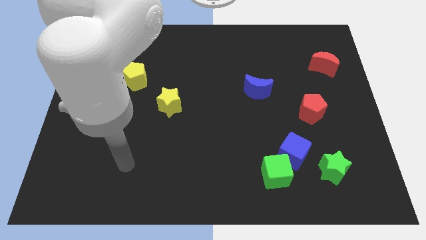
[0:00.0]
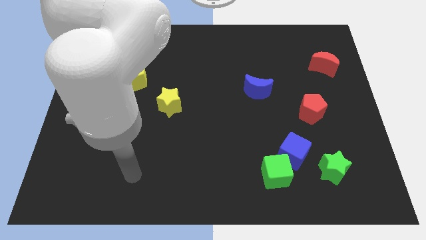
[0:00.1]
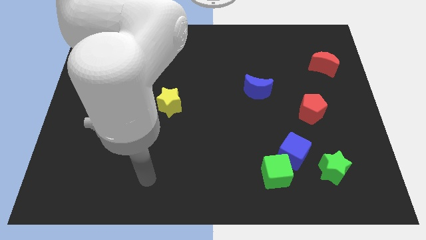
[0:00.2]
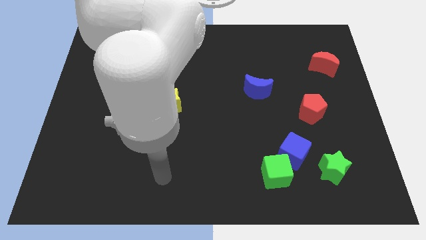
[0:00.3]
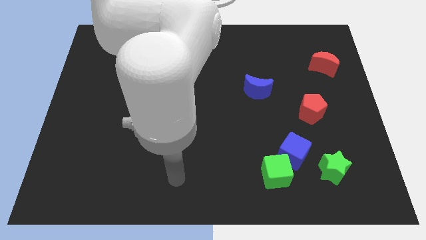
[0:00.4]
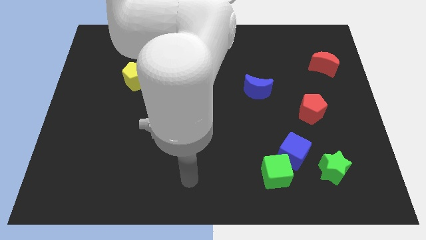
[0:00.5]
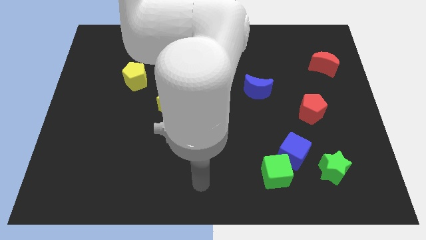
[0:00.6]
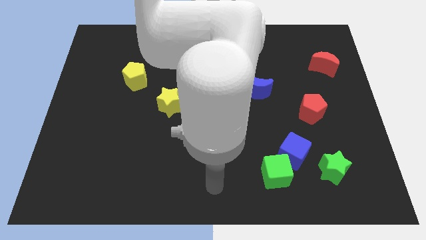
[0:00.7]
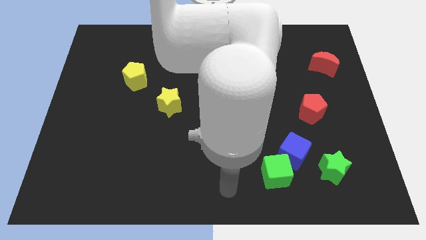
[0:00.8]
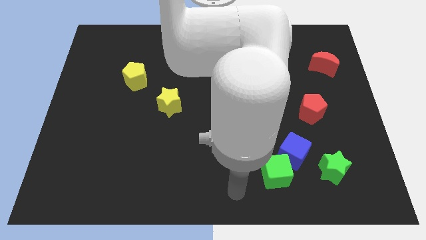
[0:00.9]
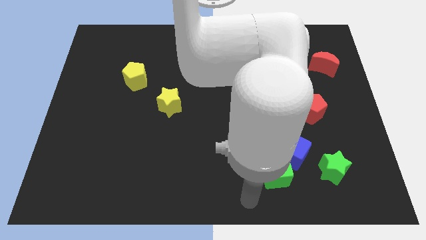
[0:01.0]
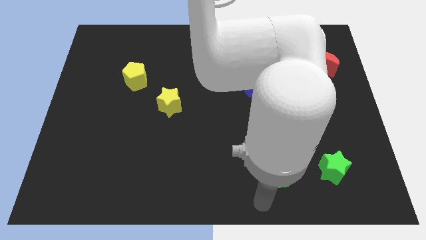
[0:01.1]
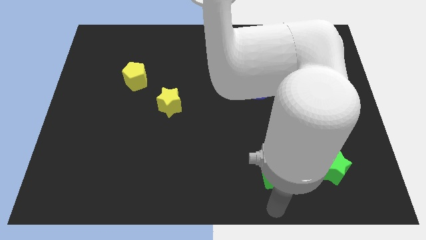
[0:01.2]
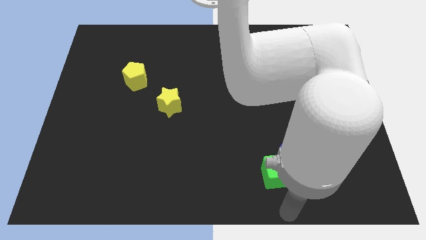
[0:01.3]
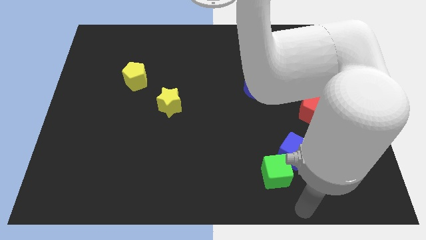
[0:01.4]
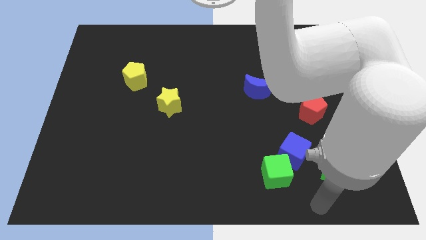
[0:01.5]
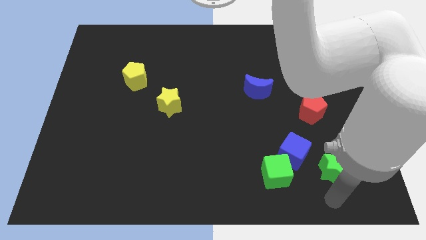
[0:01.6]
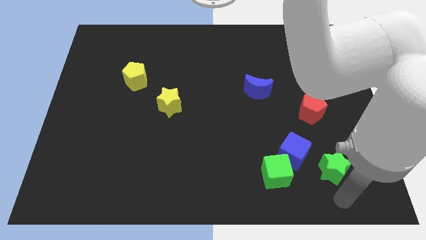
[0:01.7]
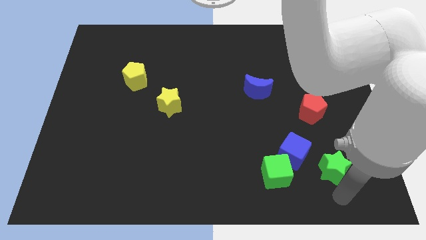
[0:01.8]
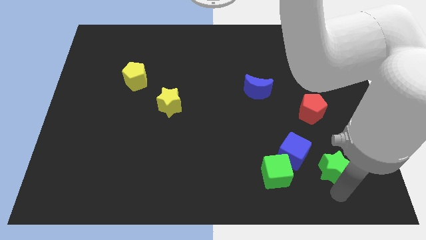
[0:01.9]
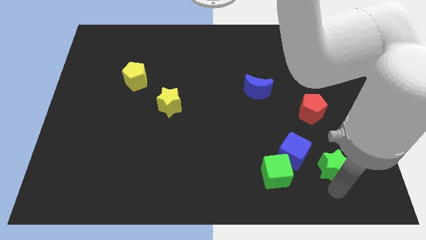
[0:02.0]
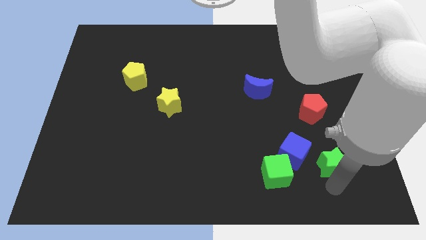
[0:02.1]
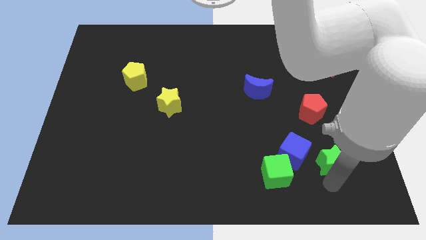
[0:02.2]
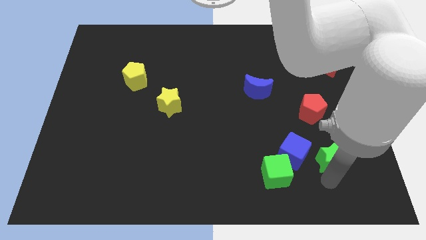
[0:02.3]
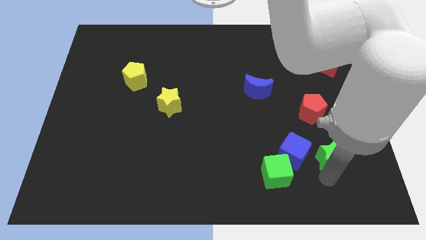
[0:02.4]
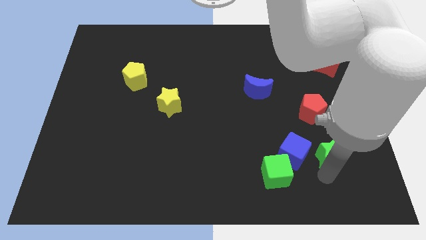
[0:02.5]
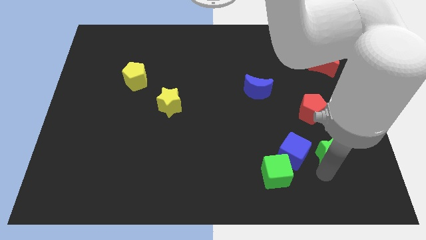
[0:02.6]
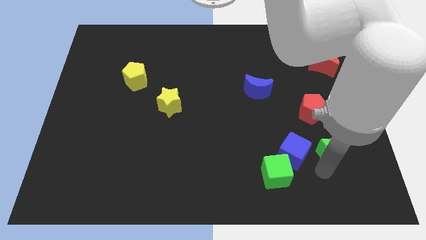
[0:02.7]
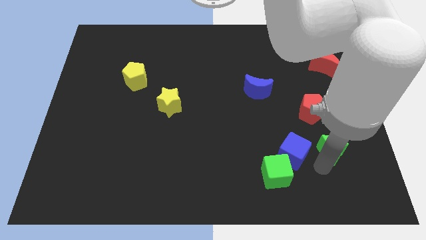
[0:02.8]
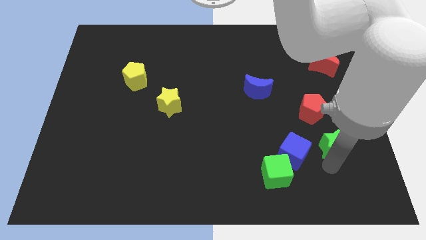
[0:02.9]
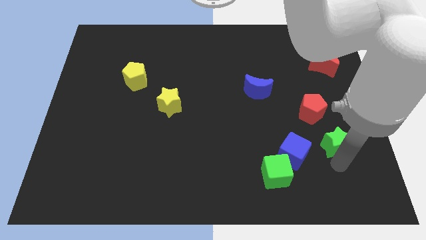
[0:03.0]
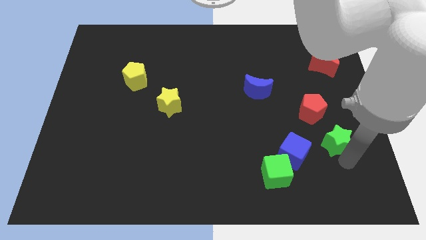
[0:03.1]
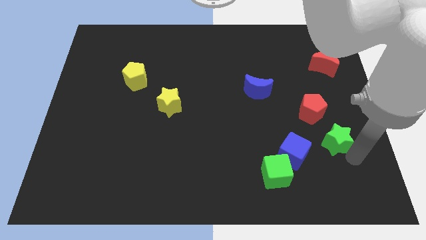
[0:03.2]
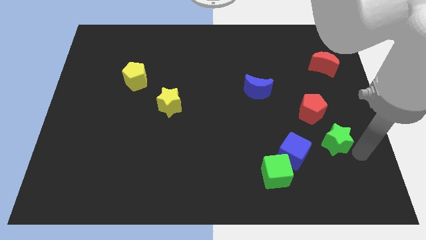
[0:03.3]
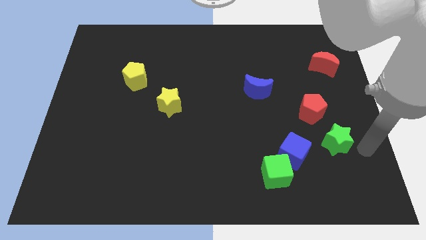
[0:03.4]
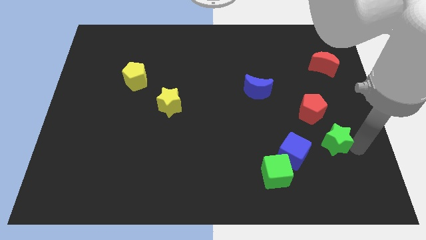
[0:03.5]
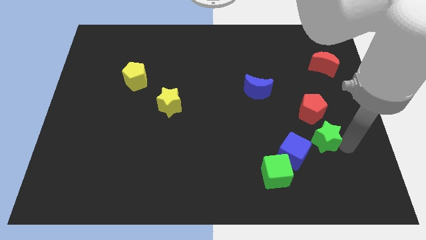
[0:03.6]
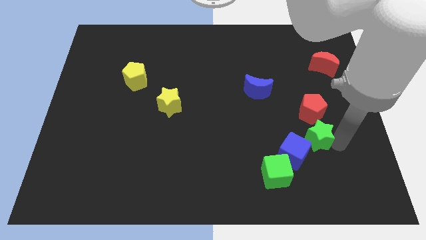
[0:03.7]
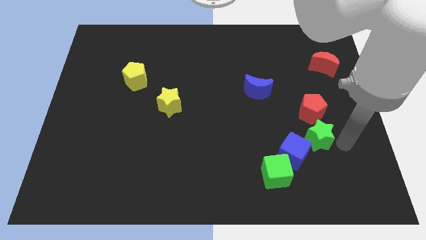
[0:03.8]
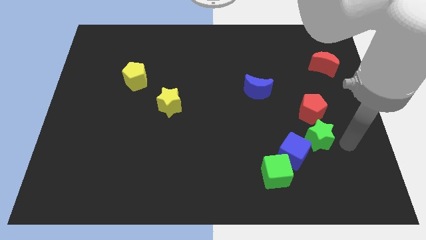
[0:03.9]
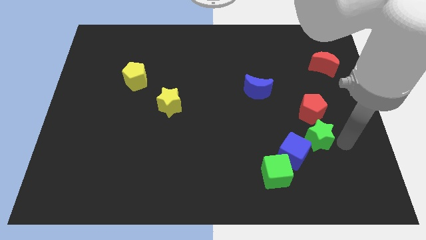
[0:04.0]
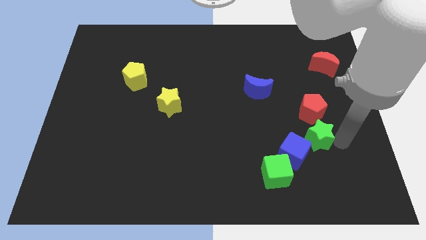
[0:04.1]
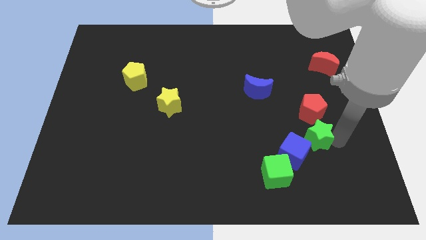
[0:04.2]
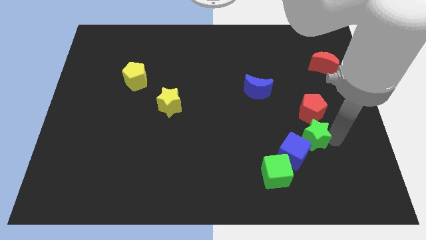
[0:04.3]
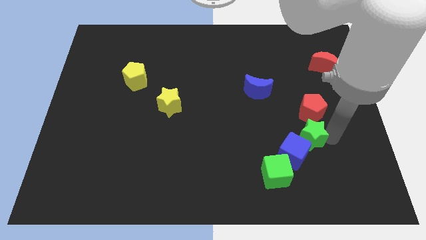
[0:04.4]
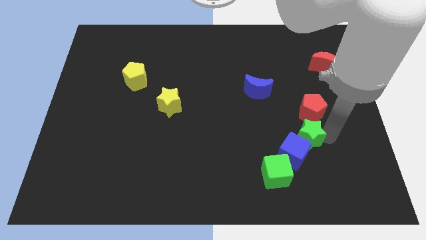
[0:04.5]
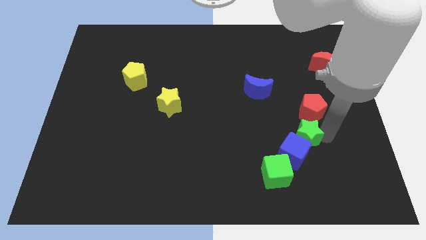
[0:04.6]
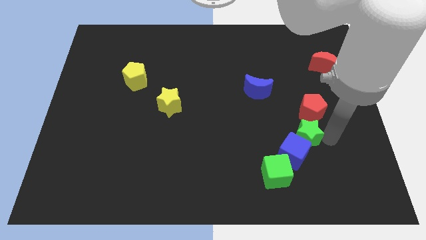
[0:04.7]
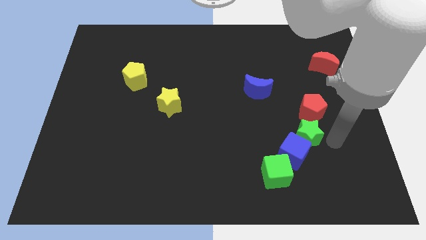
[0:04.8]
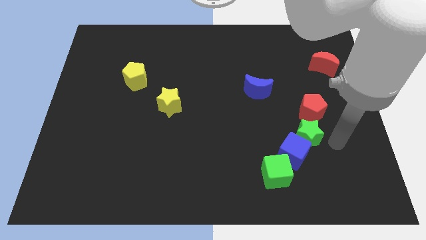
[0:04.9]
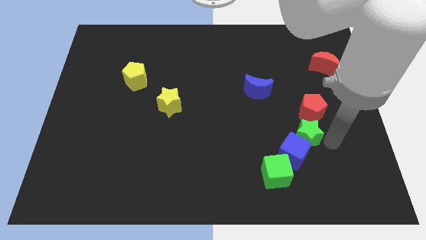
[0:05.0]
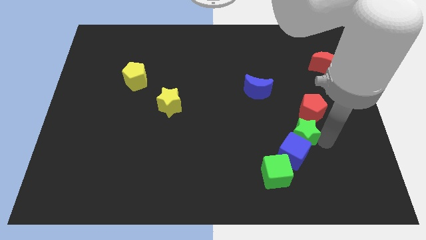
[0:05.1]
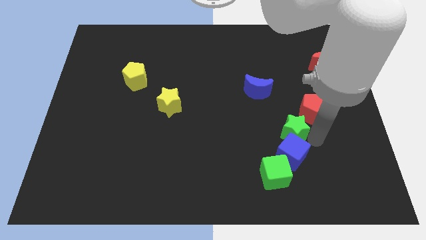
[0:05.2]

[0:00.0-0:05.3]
push the green star to the top left of the blue cube

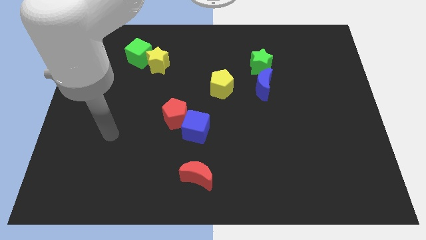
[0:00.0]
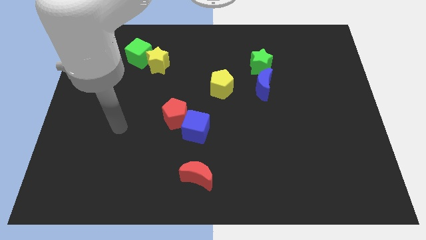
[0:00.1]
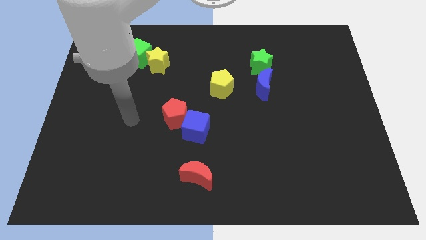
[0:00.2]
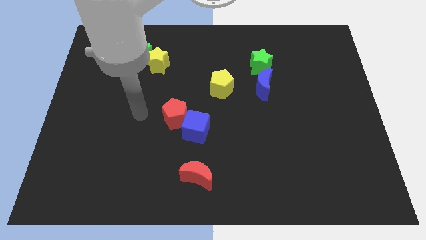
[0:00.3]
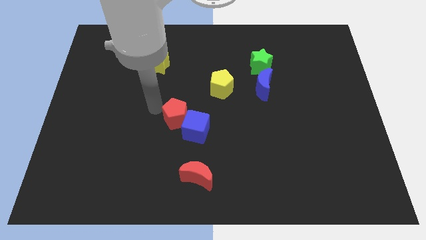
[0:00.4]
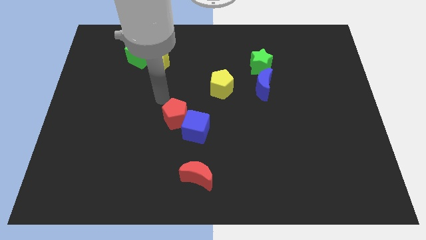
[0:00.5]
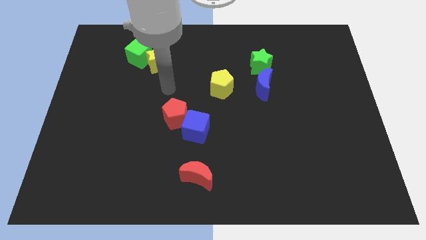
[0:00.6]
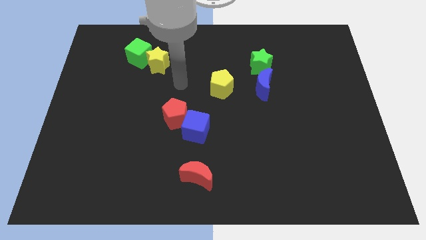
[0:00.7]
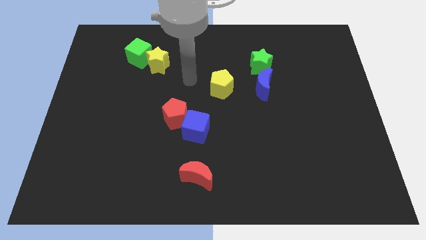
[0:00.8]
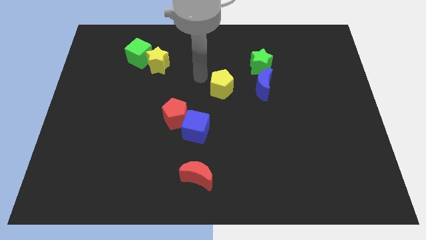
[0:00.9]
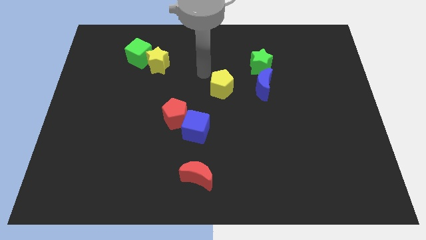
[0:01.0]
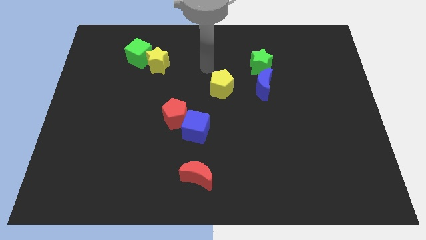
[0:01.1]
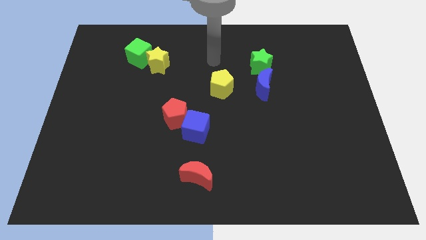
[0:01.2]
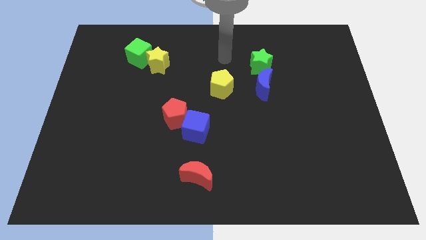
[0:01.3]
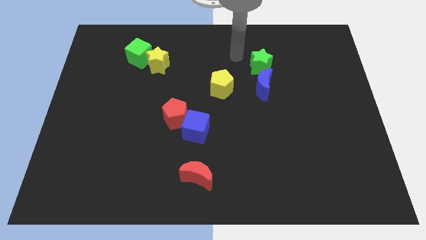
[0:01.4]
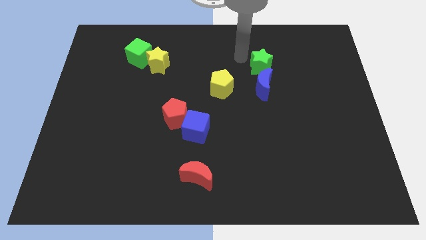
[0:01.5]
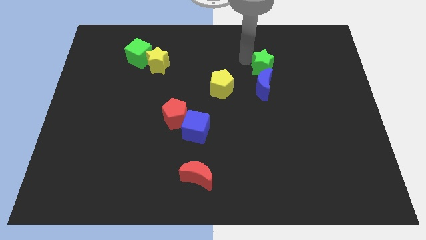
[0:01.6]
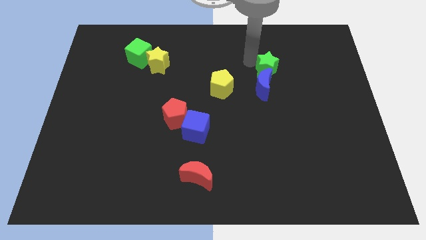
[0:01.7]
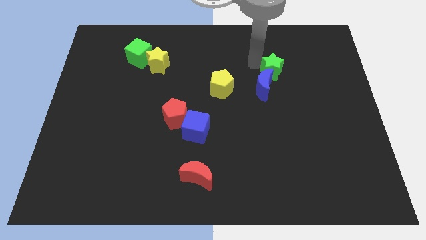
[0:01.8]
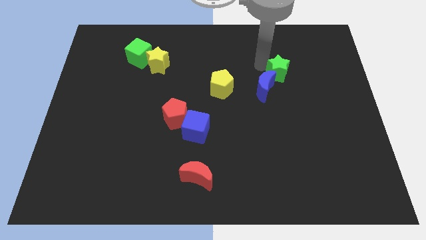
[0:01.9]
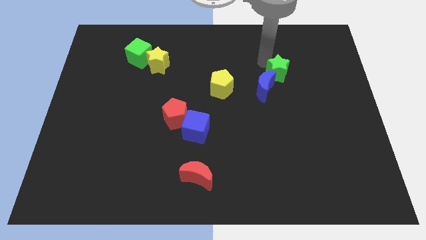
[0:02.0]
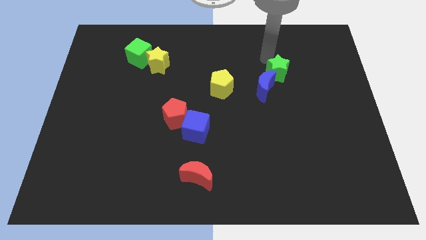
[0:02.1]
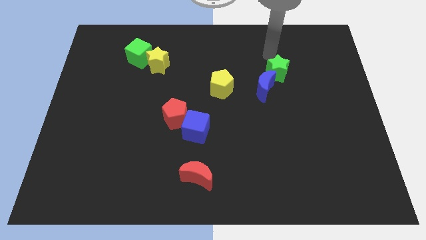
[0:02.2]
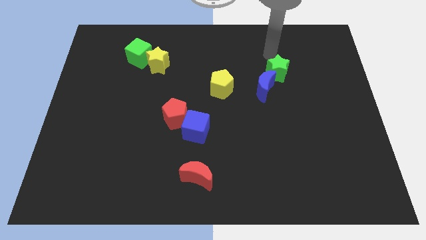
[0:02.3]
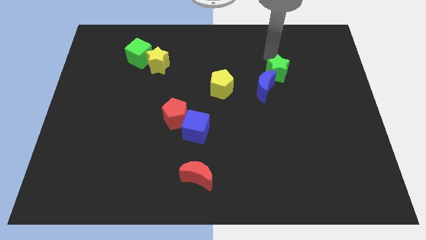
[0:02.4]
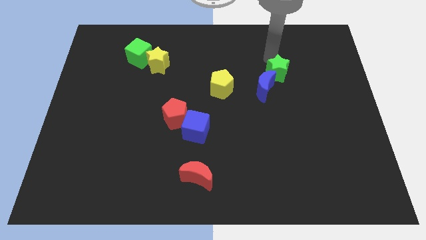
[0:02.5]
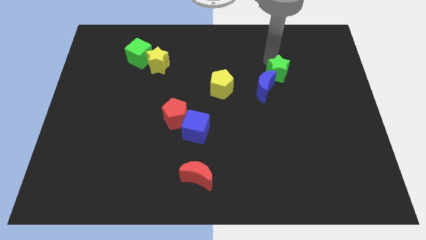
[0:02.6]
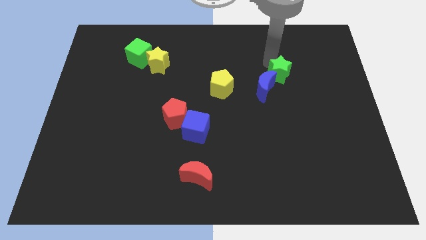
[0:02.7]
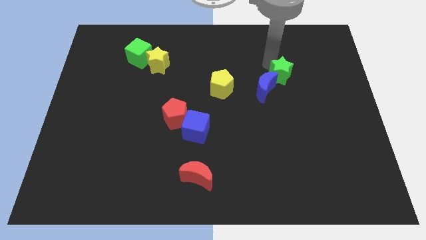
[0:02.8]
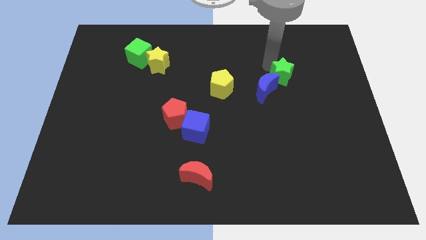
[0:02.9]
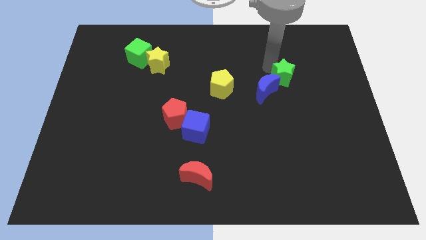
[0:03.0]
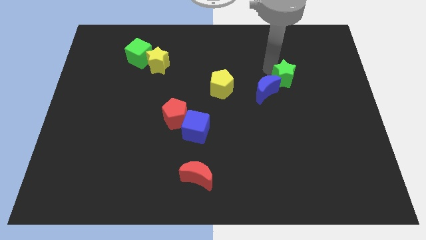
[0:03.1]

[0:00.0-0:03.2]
slide the green star right of the yellow pentagon
